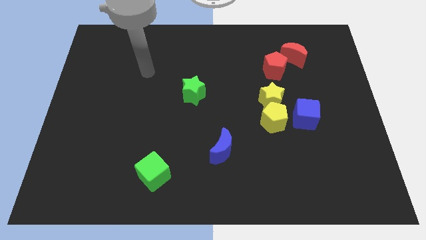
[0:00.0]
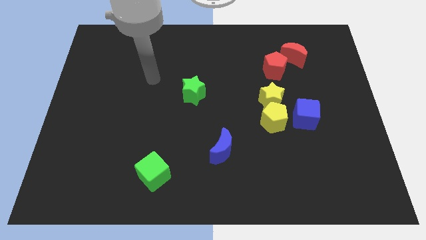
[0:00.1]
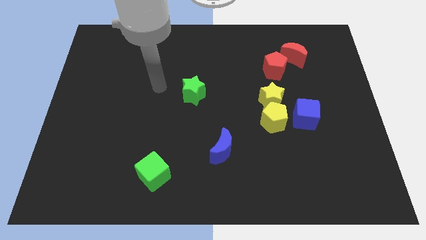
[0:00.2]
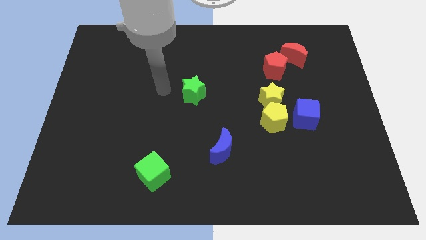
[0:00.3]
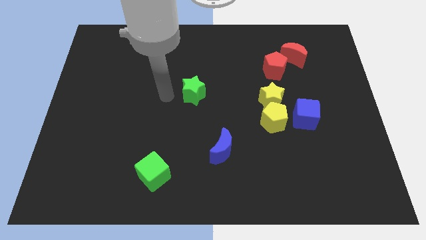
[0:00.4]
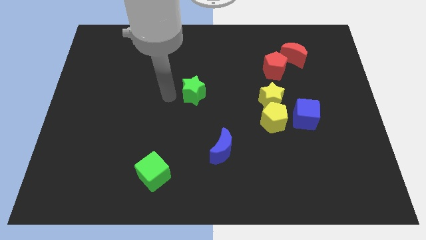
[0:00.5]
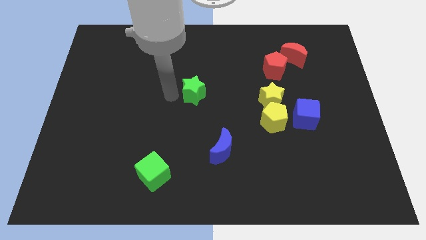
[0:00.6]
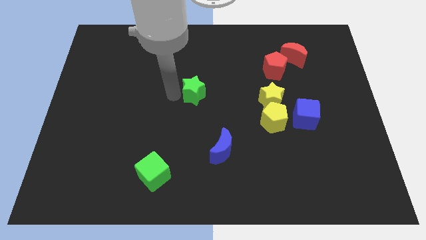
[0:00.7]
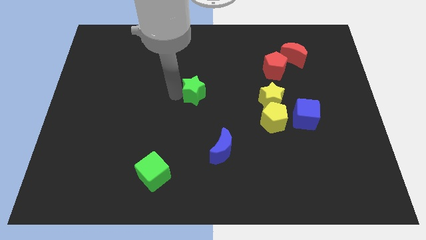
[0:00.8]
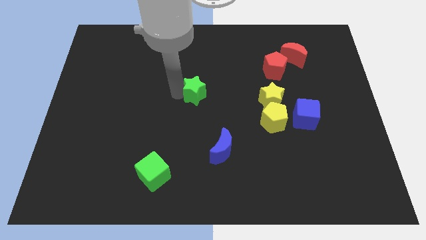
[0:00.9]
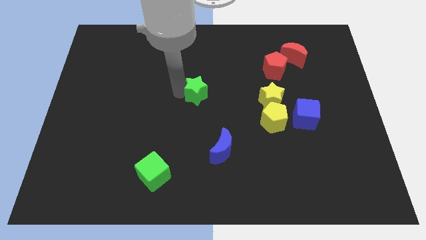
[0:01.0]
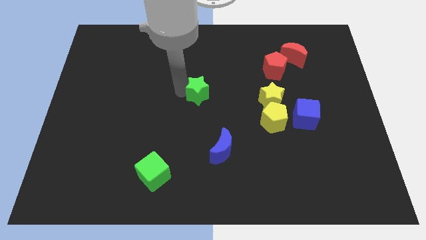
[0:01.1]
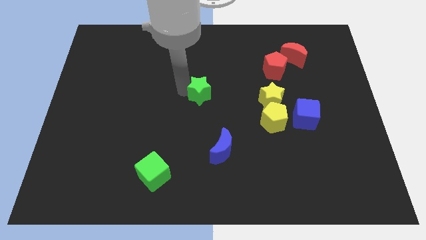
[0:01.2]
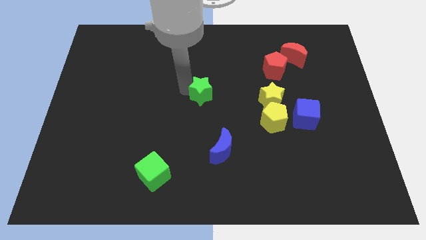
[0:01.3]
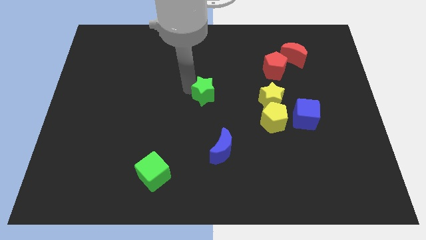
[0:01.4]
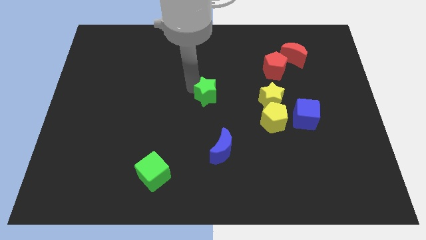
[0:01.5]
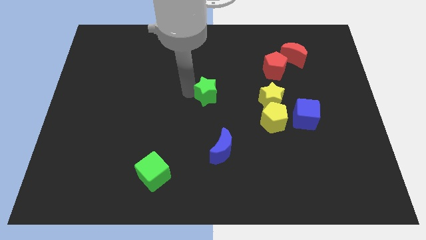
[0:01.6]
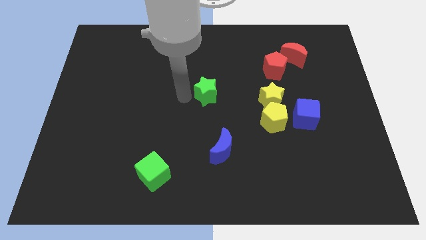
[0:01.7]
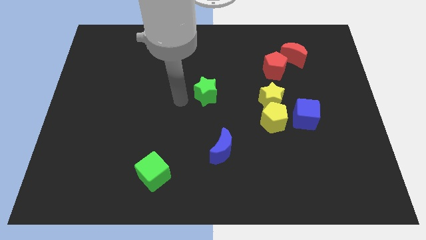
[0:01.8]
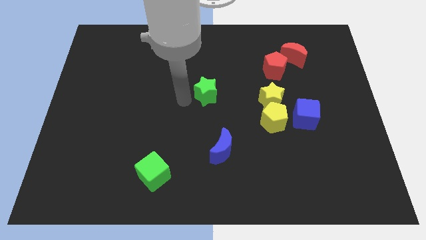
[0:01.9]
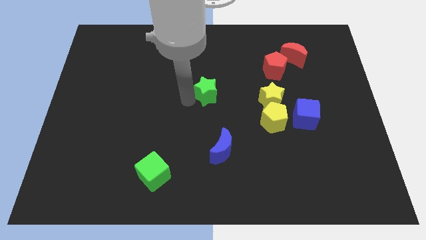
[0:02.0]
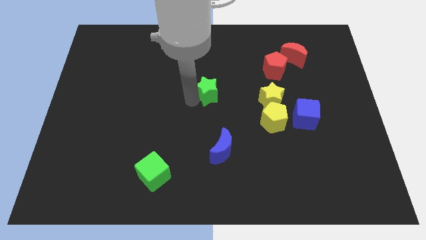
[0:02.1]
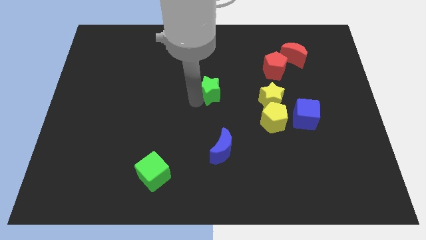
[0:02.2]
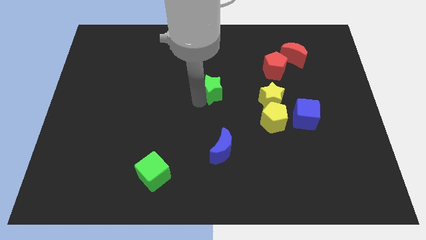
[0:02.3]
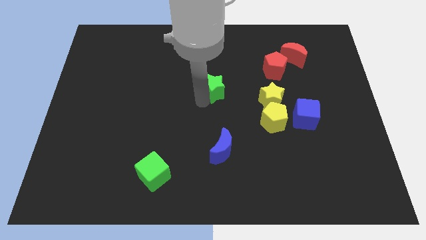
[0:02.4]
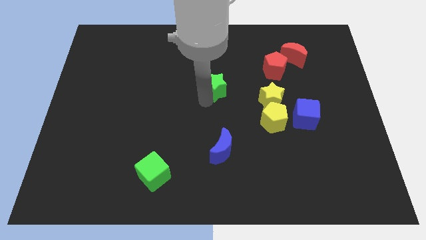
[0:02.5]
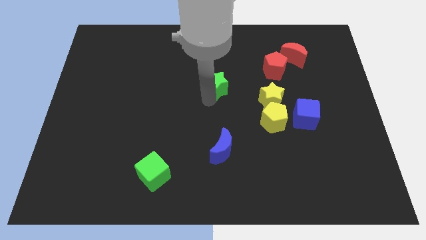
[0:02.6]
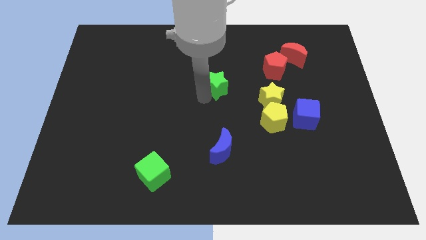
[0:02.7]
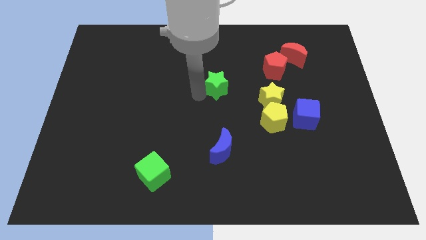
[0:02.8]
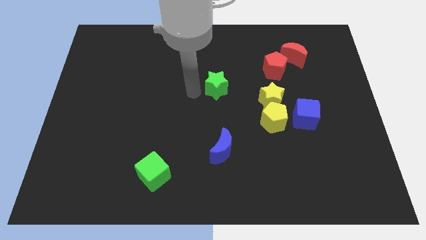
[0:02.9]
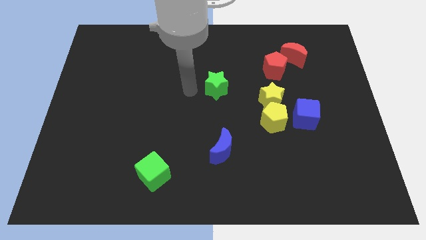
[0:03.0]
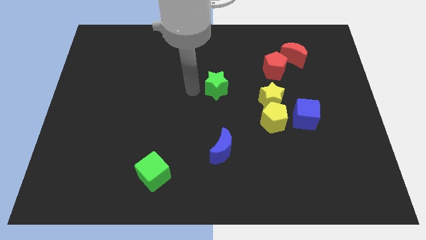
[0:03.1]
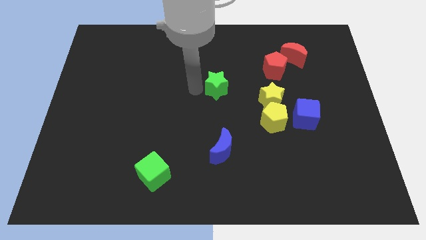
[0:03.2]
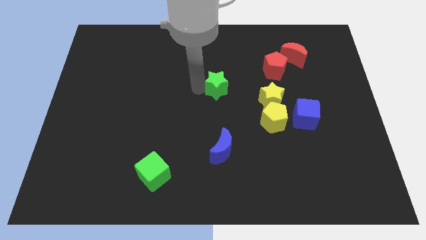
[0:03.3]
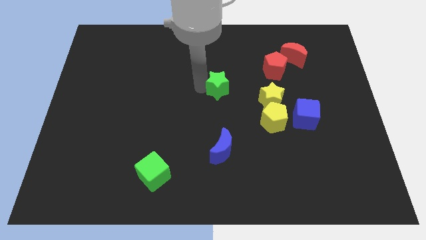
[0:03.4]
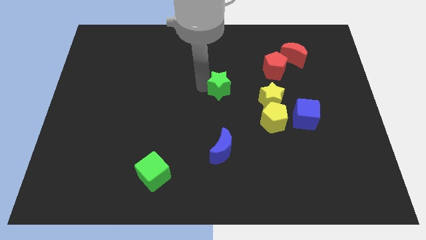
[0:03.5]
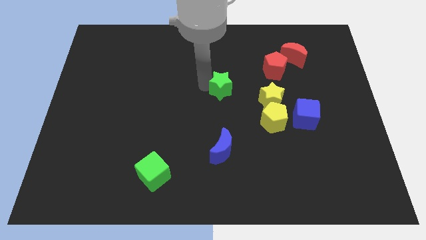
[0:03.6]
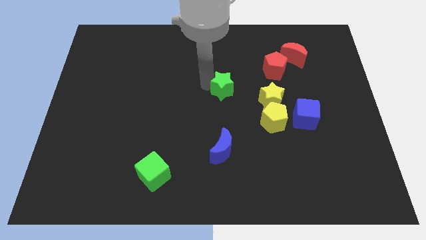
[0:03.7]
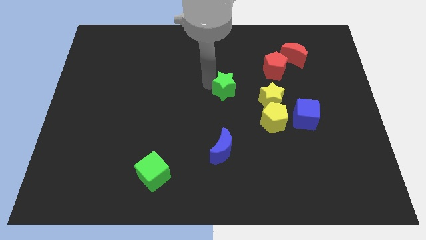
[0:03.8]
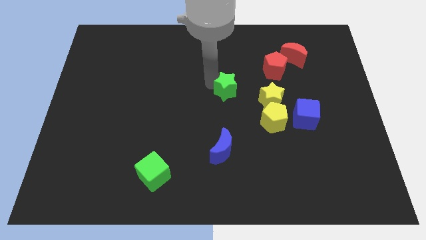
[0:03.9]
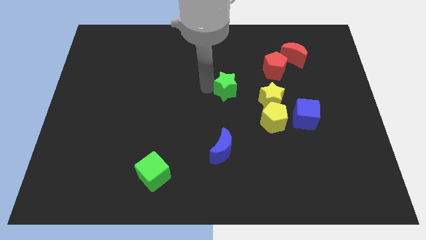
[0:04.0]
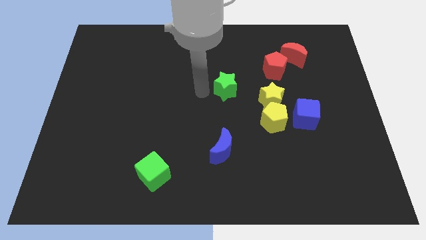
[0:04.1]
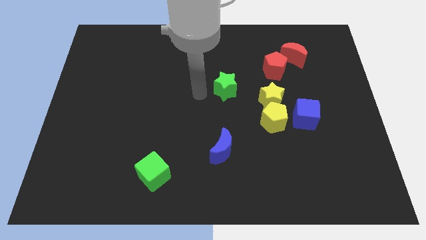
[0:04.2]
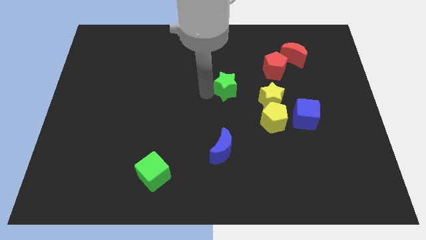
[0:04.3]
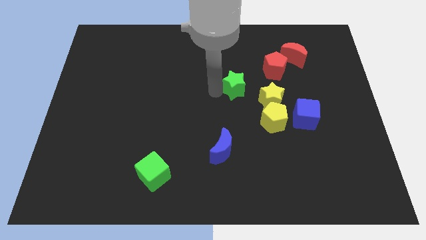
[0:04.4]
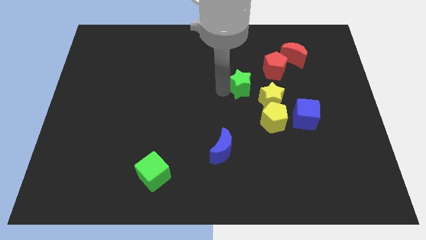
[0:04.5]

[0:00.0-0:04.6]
put the green star to the bottom left of the red pentagon

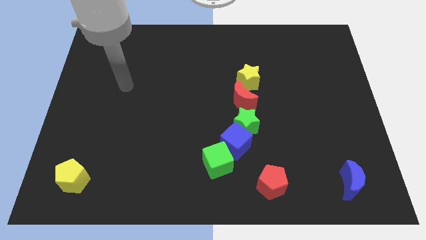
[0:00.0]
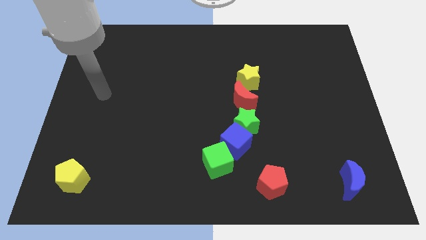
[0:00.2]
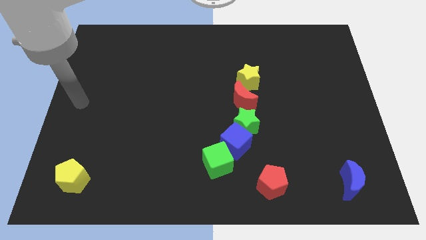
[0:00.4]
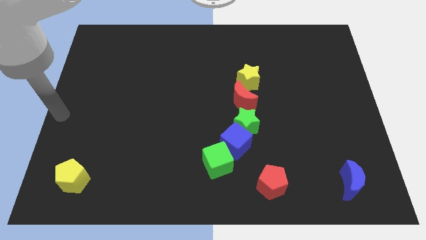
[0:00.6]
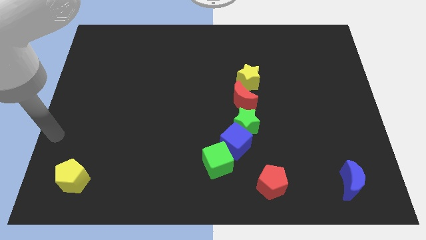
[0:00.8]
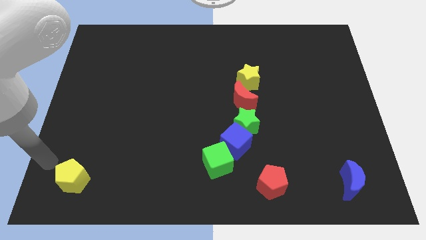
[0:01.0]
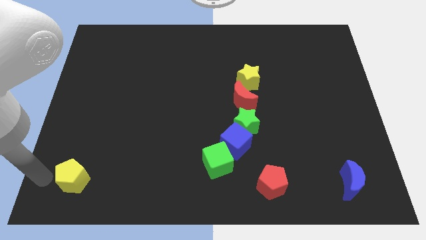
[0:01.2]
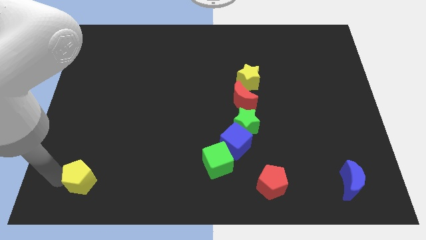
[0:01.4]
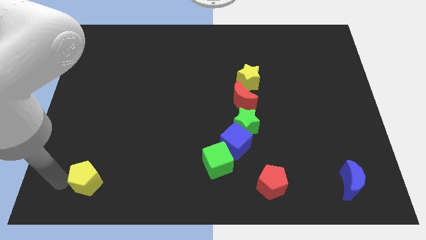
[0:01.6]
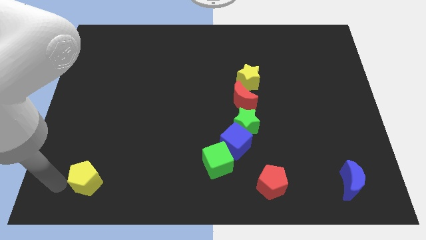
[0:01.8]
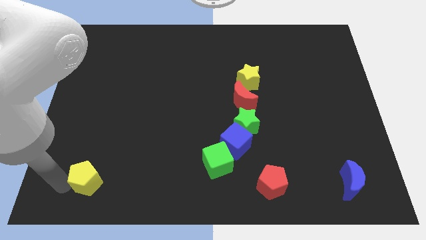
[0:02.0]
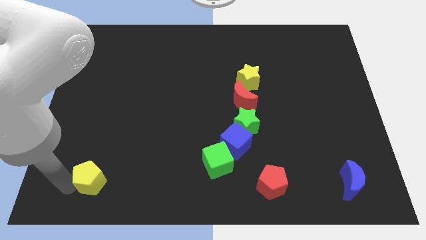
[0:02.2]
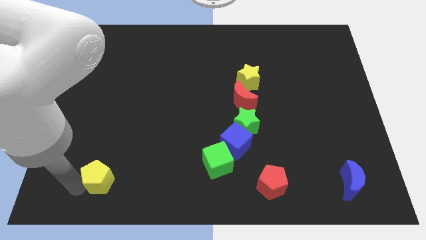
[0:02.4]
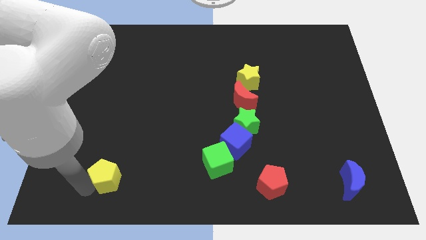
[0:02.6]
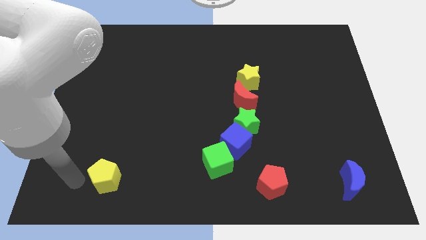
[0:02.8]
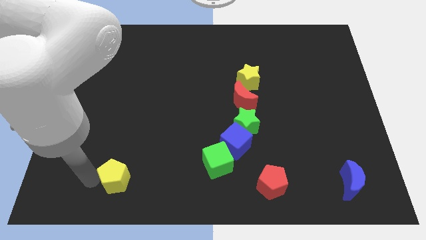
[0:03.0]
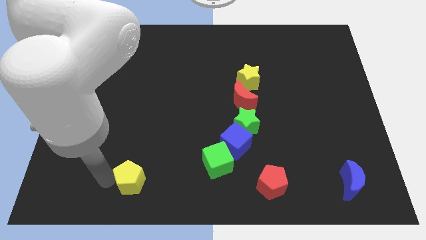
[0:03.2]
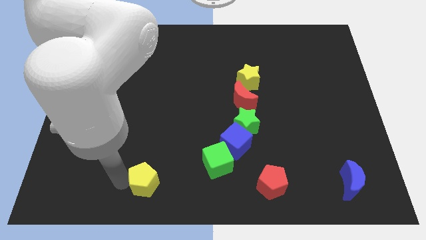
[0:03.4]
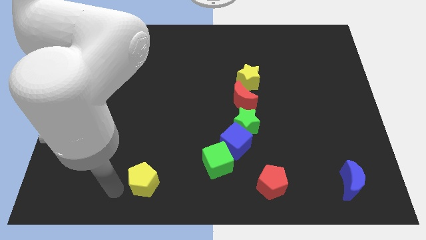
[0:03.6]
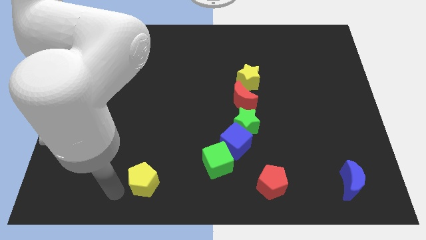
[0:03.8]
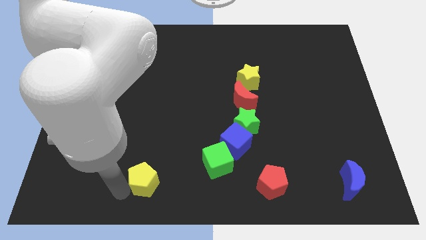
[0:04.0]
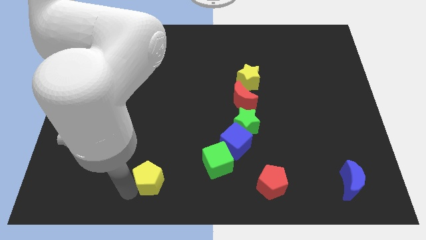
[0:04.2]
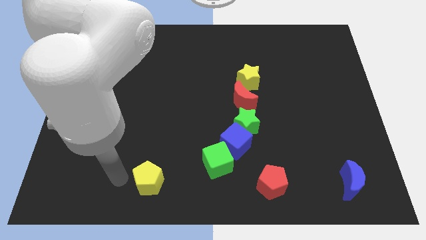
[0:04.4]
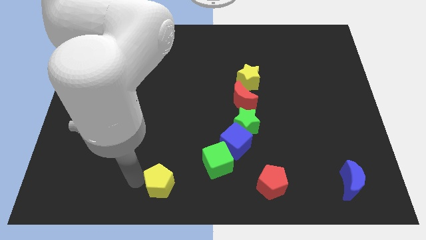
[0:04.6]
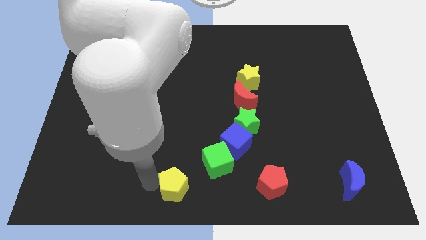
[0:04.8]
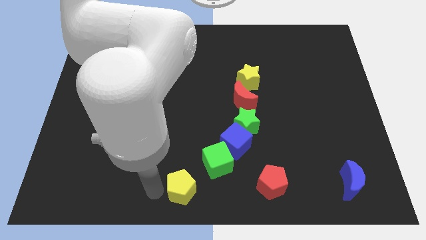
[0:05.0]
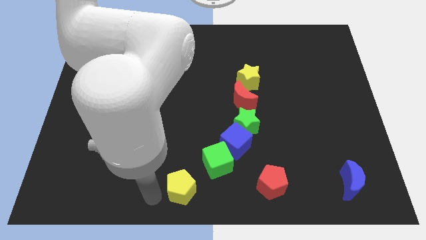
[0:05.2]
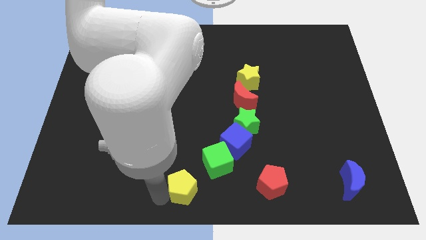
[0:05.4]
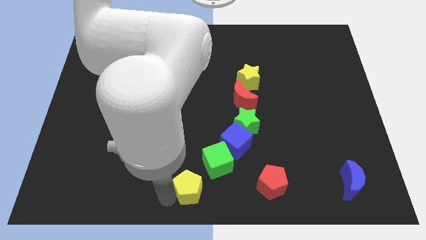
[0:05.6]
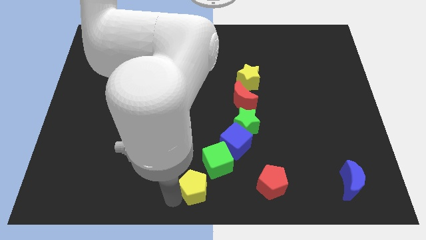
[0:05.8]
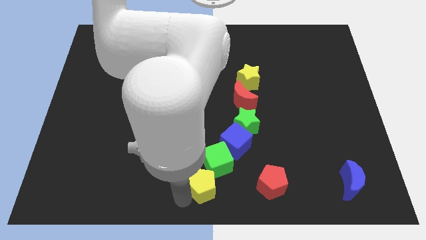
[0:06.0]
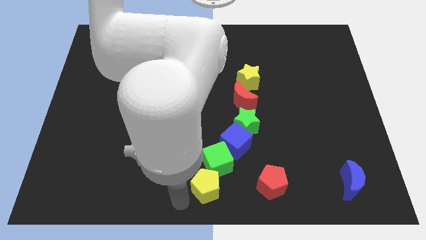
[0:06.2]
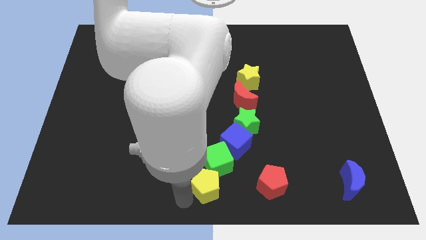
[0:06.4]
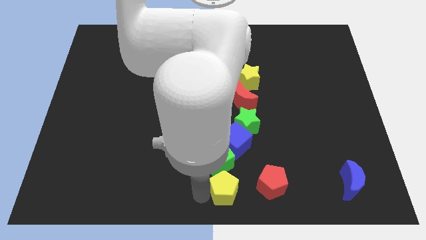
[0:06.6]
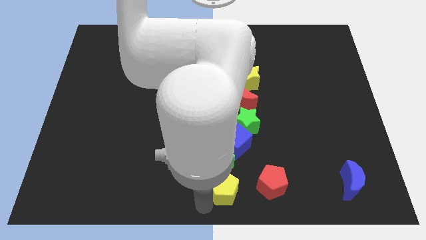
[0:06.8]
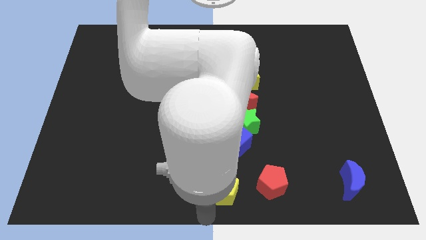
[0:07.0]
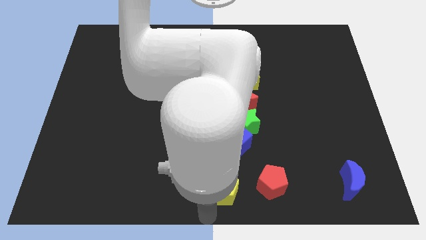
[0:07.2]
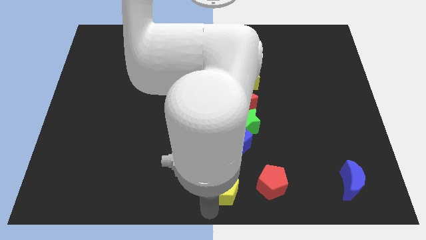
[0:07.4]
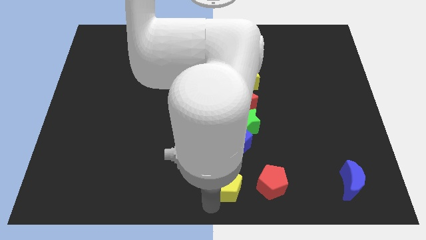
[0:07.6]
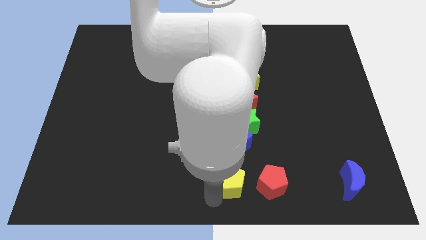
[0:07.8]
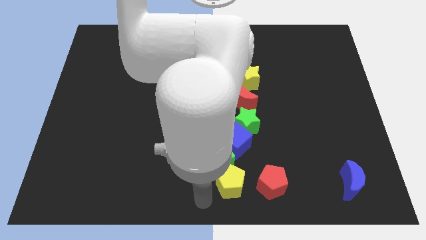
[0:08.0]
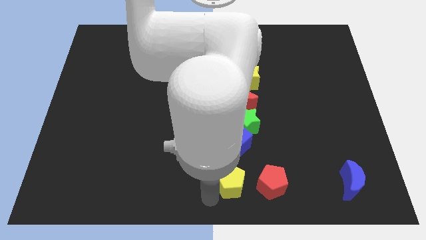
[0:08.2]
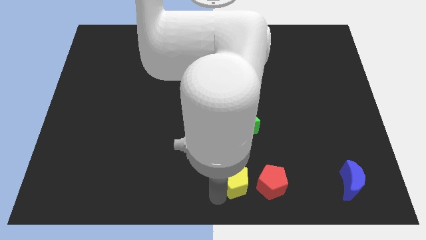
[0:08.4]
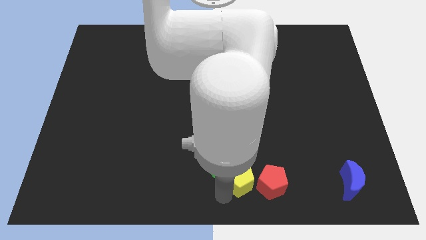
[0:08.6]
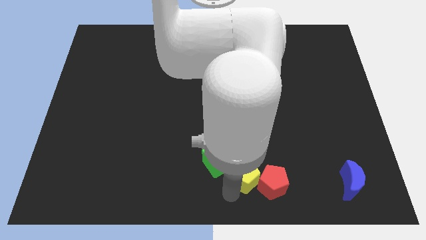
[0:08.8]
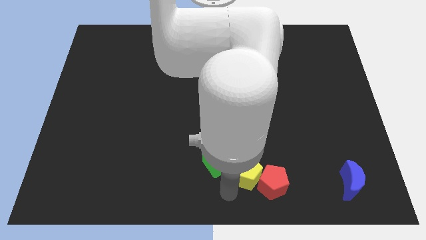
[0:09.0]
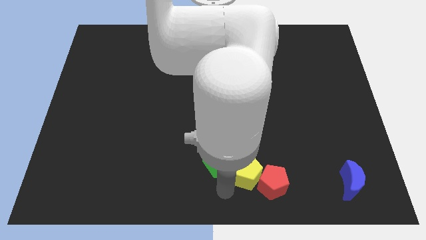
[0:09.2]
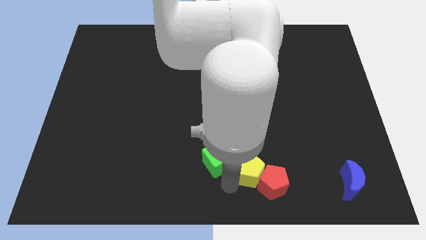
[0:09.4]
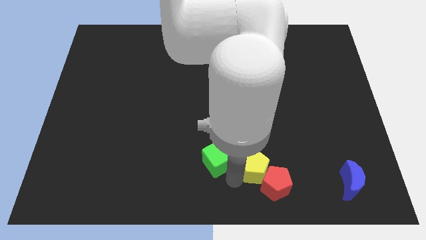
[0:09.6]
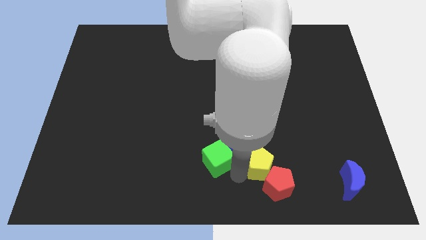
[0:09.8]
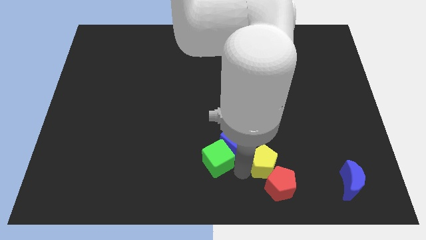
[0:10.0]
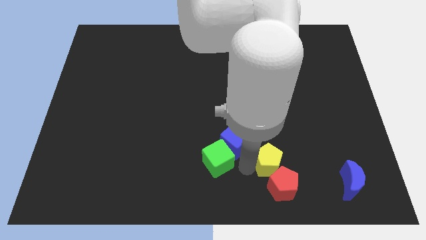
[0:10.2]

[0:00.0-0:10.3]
put the yellow pentagon right of the blue cube
